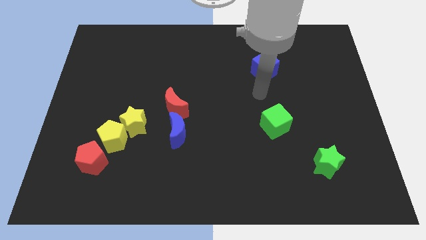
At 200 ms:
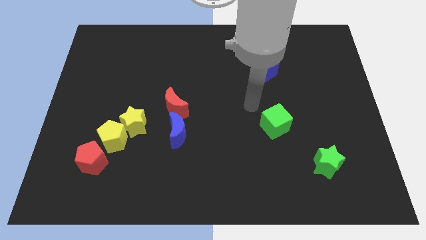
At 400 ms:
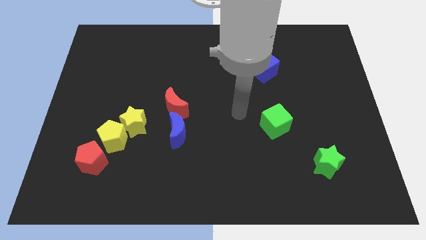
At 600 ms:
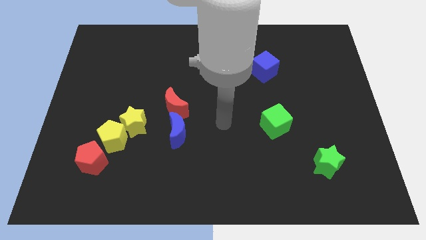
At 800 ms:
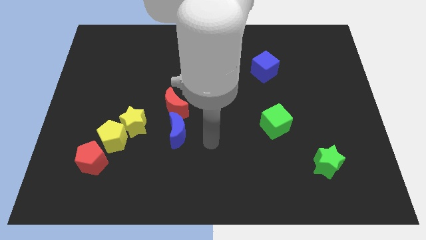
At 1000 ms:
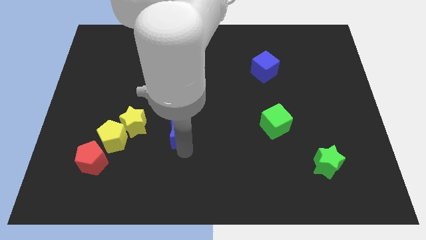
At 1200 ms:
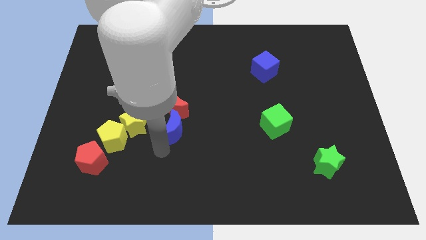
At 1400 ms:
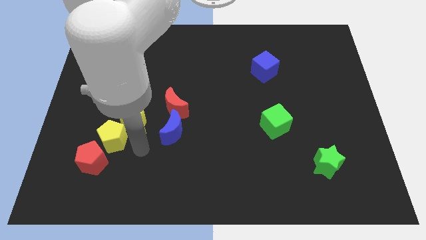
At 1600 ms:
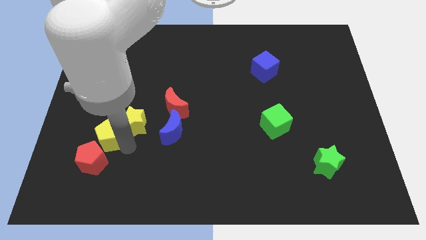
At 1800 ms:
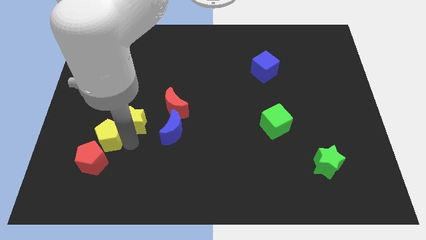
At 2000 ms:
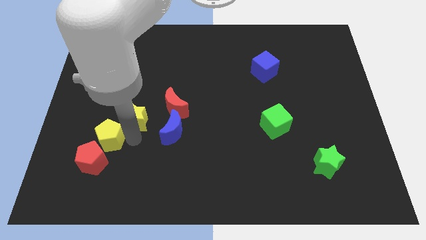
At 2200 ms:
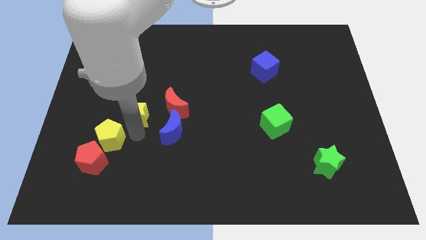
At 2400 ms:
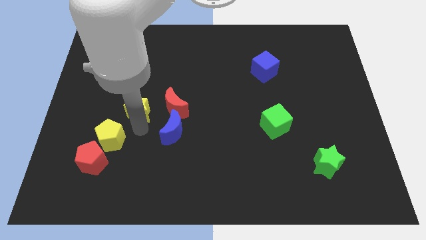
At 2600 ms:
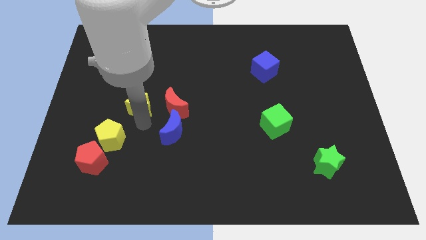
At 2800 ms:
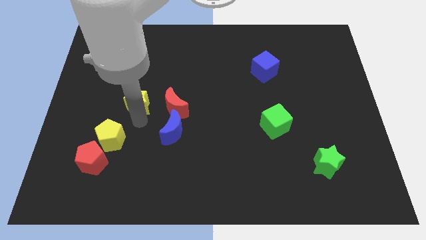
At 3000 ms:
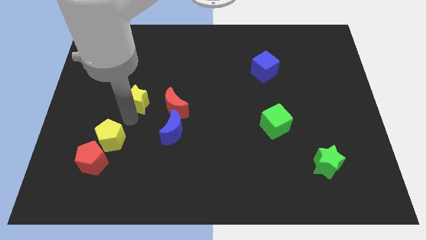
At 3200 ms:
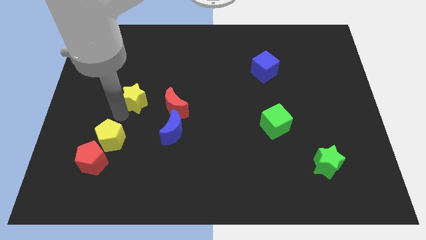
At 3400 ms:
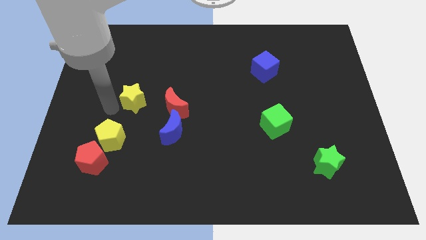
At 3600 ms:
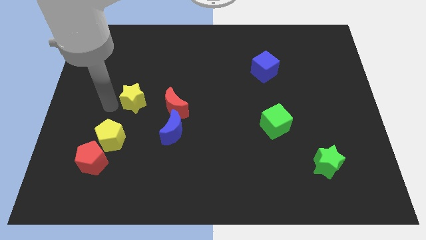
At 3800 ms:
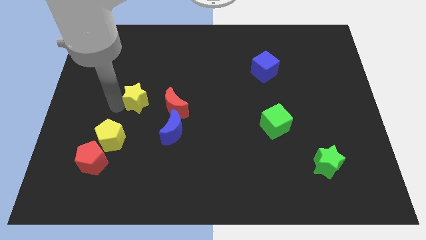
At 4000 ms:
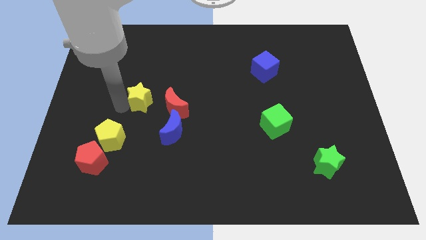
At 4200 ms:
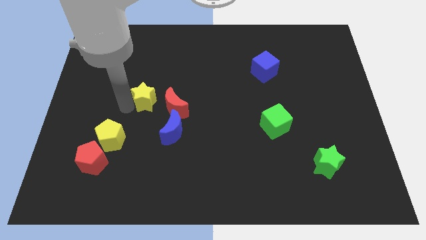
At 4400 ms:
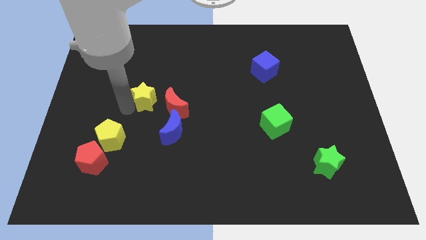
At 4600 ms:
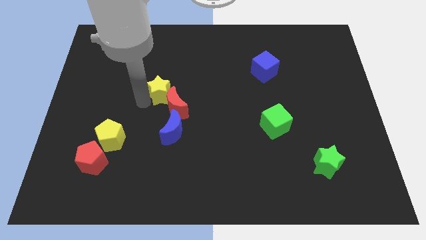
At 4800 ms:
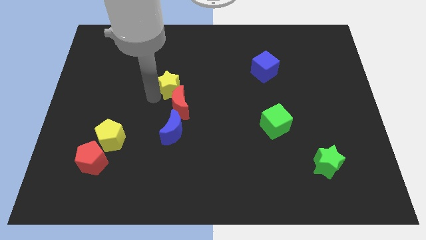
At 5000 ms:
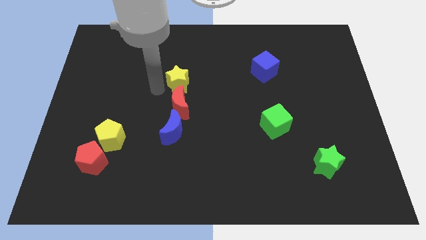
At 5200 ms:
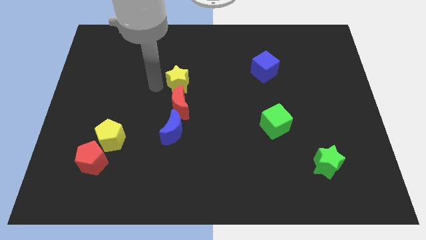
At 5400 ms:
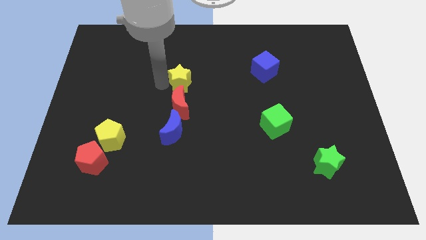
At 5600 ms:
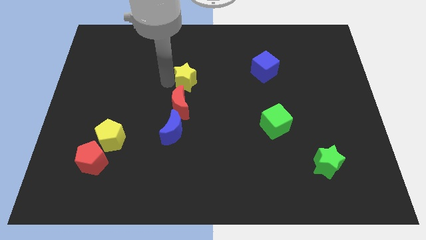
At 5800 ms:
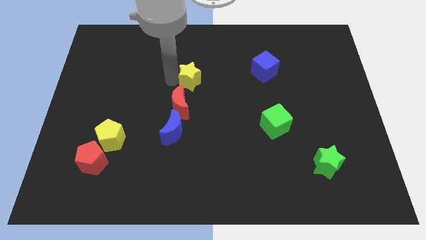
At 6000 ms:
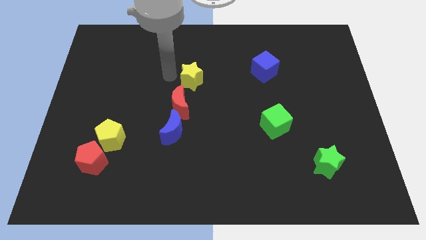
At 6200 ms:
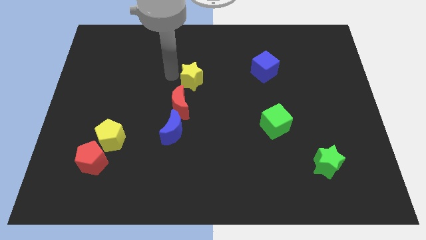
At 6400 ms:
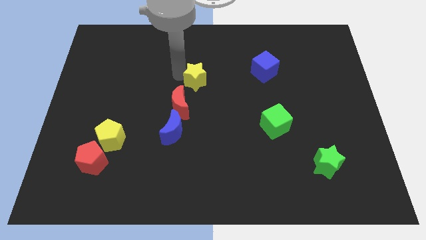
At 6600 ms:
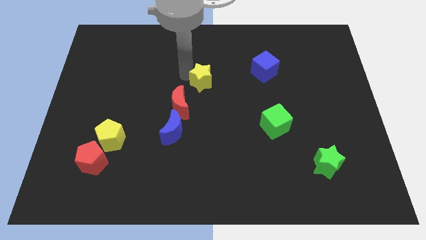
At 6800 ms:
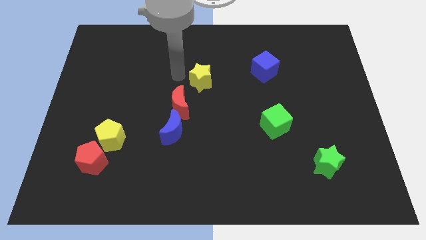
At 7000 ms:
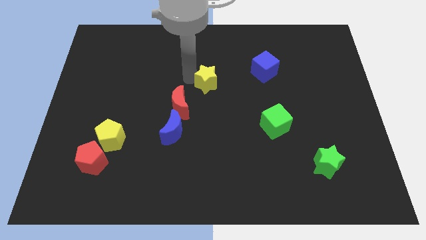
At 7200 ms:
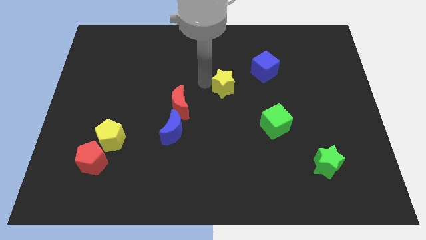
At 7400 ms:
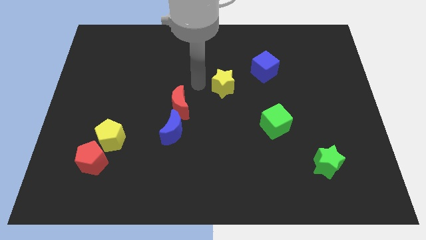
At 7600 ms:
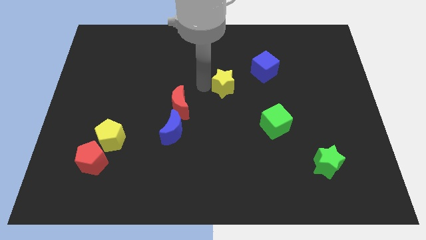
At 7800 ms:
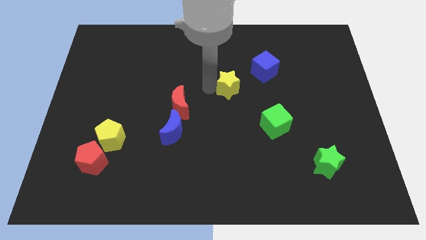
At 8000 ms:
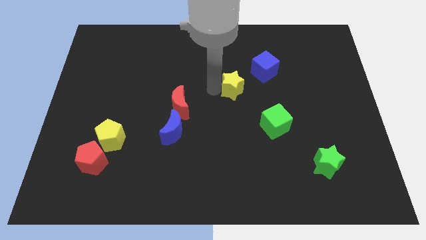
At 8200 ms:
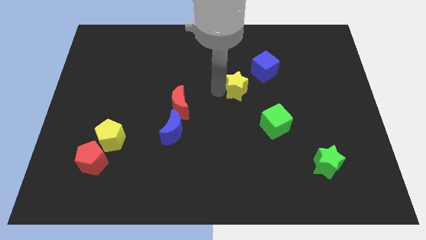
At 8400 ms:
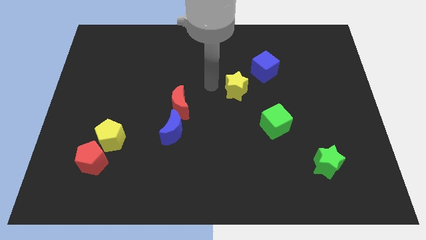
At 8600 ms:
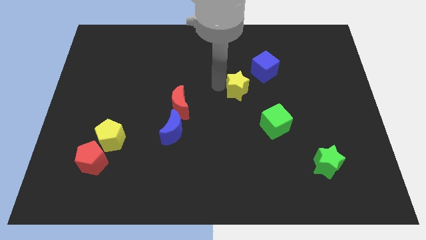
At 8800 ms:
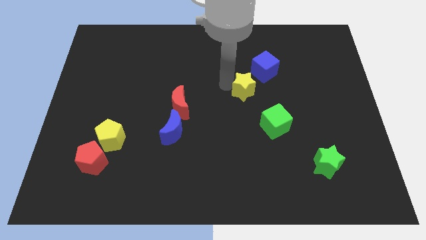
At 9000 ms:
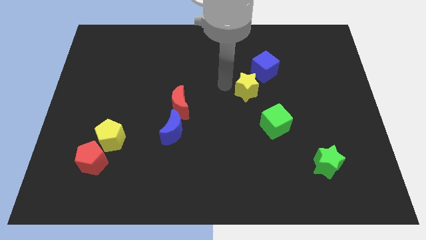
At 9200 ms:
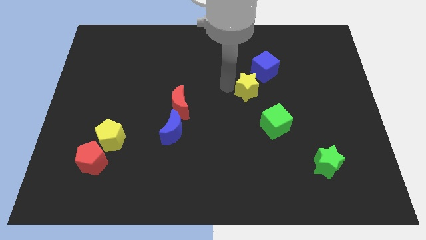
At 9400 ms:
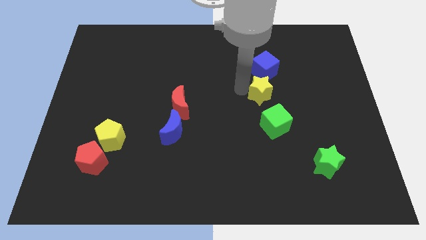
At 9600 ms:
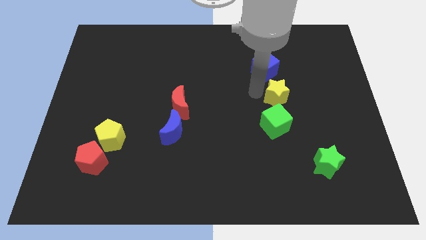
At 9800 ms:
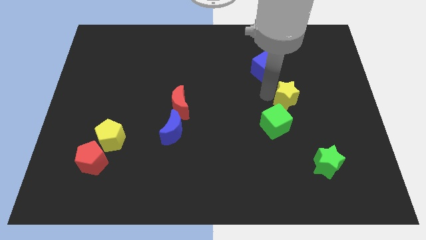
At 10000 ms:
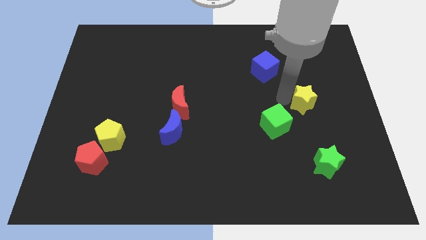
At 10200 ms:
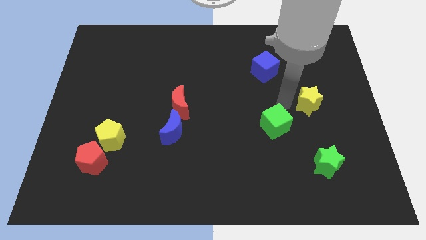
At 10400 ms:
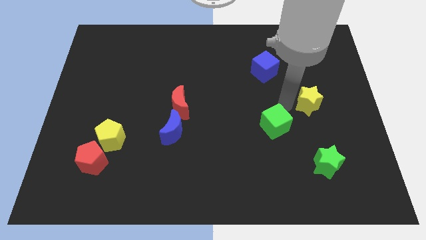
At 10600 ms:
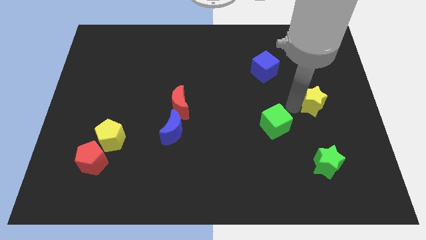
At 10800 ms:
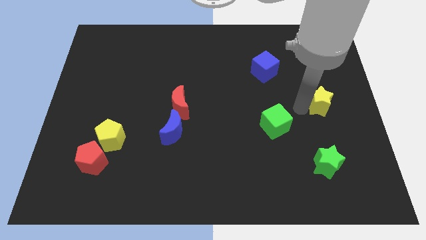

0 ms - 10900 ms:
push the yellow star to the right side

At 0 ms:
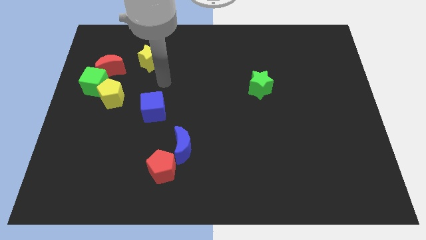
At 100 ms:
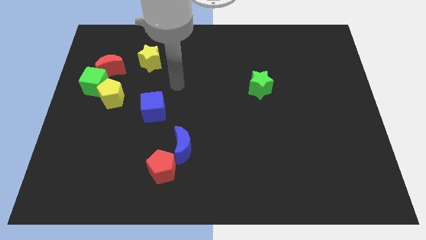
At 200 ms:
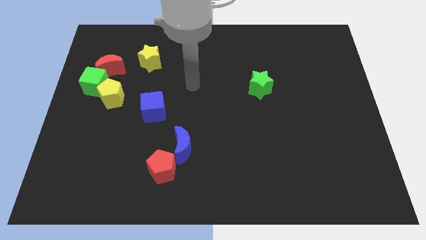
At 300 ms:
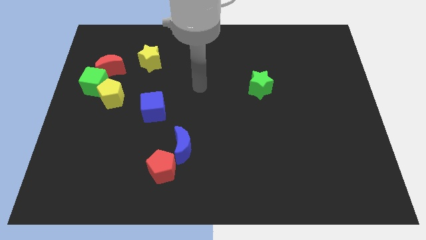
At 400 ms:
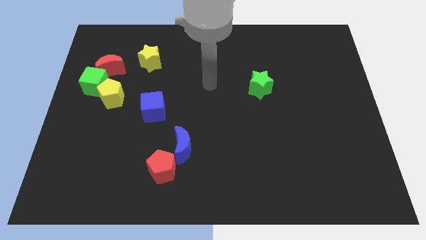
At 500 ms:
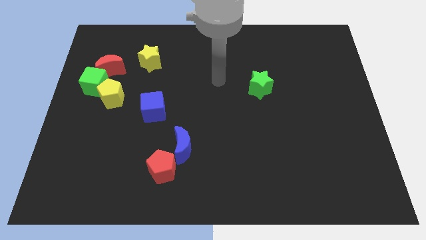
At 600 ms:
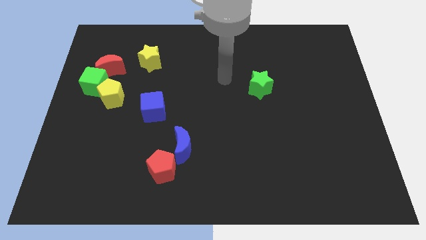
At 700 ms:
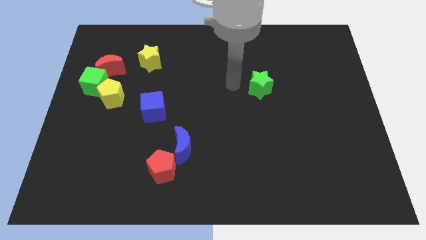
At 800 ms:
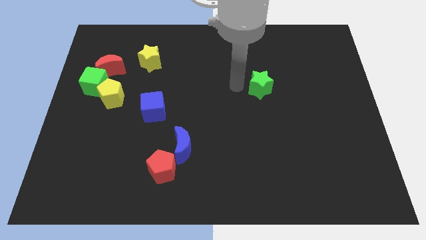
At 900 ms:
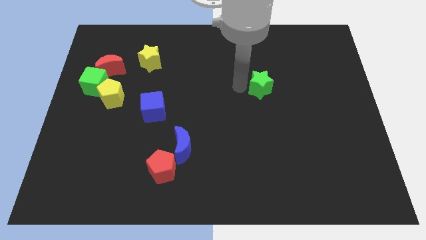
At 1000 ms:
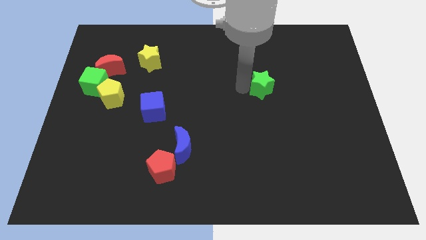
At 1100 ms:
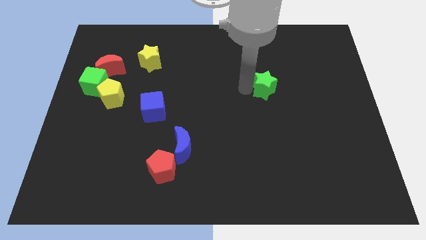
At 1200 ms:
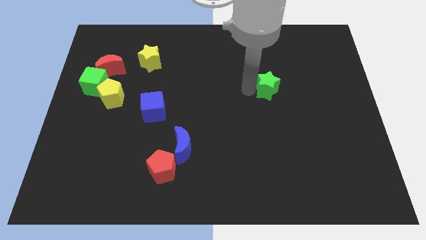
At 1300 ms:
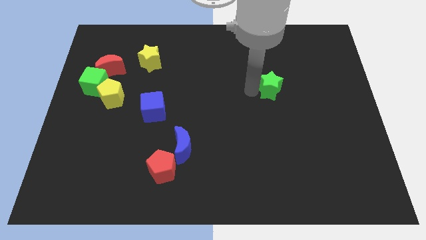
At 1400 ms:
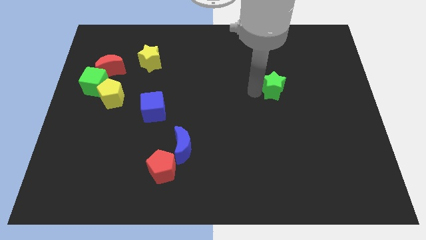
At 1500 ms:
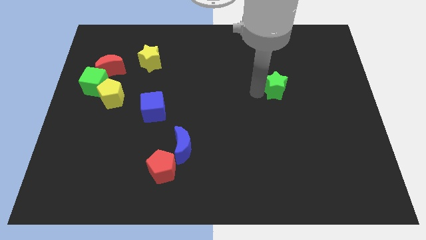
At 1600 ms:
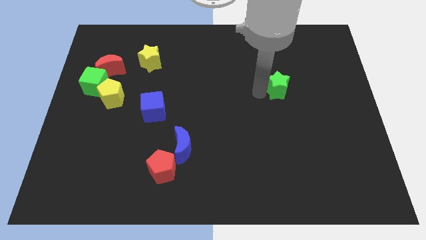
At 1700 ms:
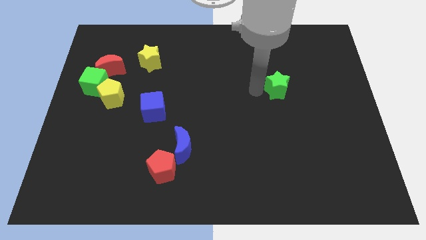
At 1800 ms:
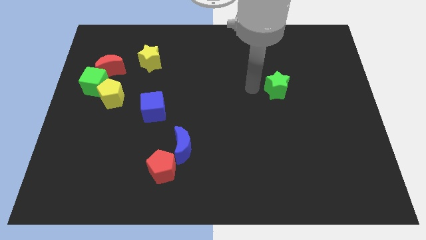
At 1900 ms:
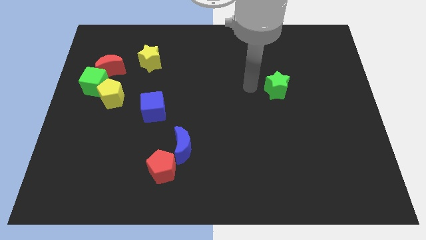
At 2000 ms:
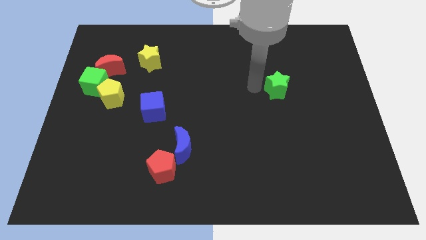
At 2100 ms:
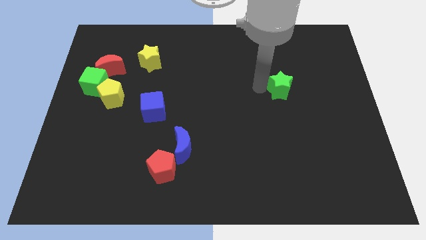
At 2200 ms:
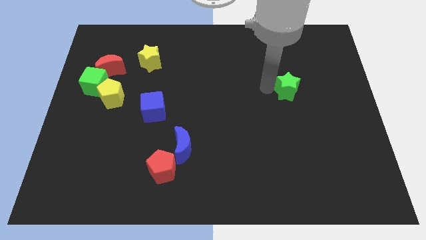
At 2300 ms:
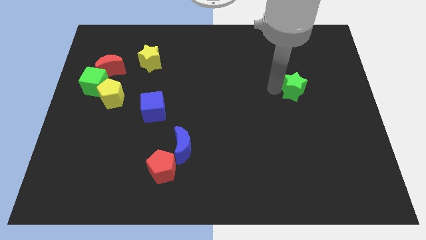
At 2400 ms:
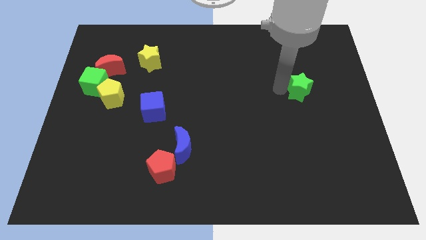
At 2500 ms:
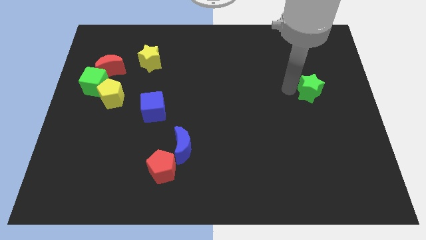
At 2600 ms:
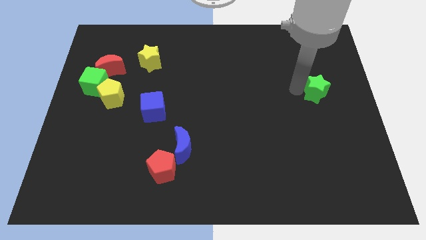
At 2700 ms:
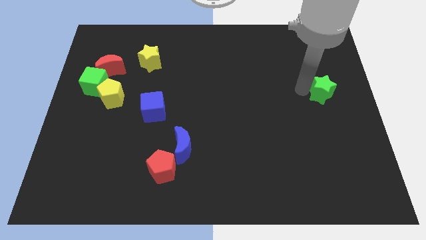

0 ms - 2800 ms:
move the green star to the right side
